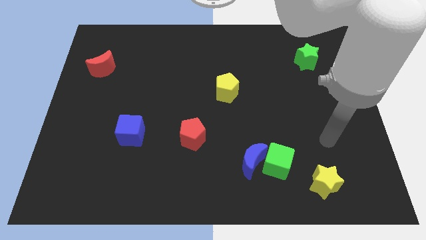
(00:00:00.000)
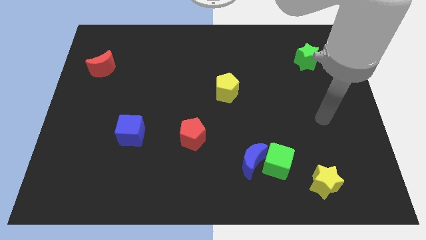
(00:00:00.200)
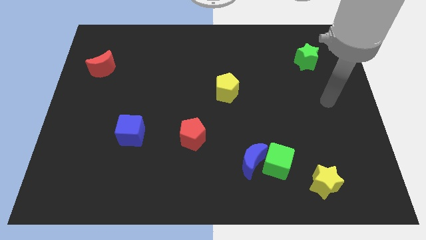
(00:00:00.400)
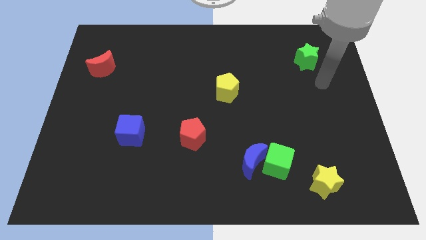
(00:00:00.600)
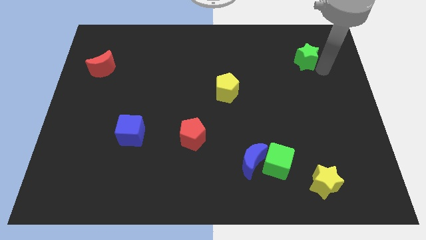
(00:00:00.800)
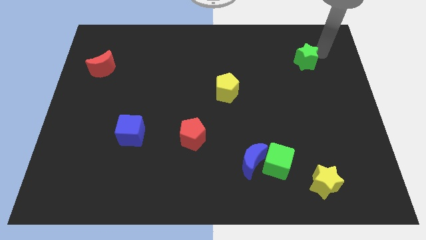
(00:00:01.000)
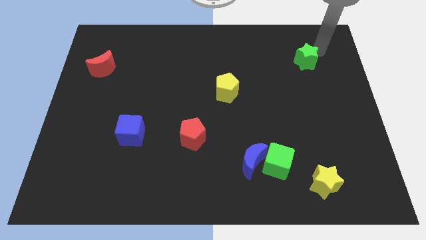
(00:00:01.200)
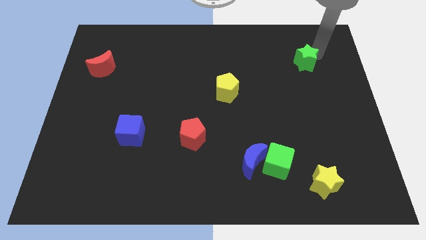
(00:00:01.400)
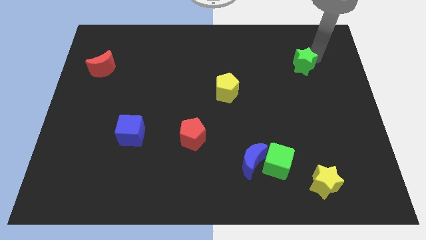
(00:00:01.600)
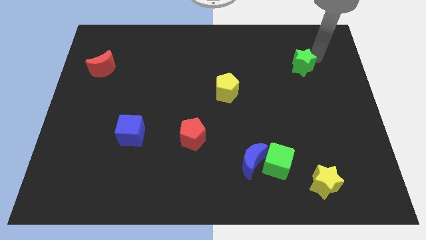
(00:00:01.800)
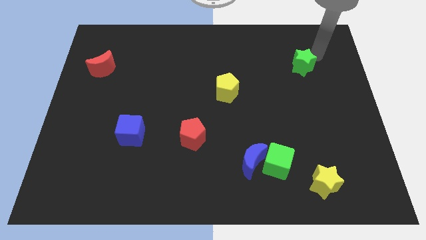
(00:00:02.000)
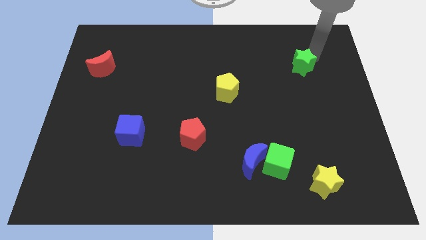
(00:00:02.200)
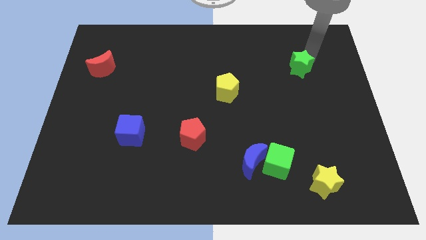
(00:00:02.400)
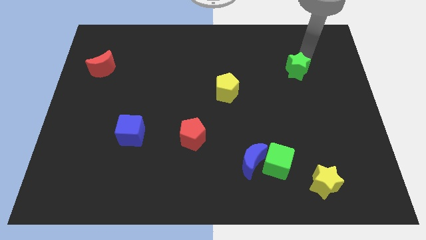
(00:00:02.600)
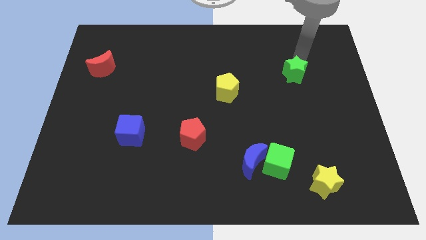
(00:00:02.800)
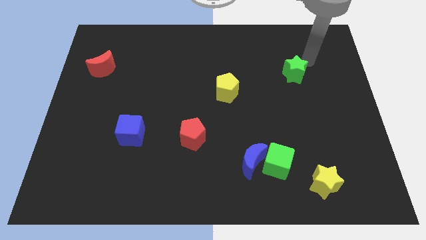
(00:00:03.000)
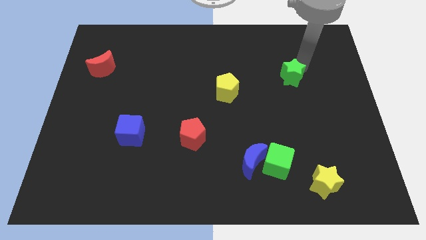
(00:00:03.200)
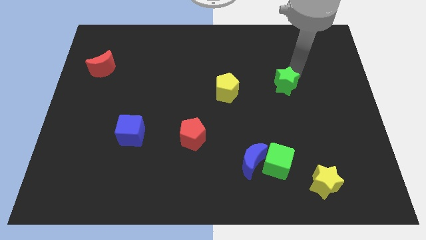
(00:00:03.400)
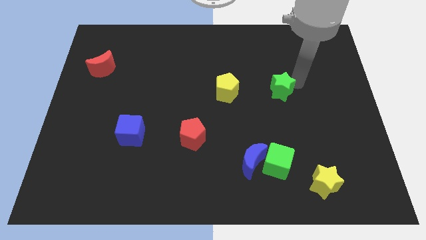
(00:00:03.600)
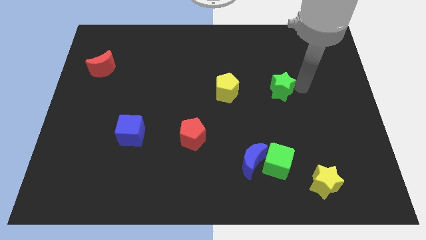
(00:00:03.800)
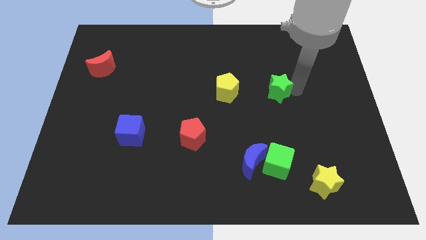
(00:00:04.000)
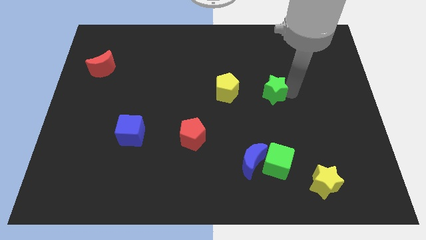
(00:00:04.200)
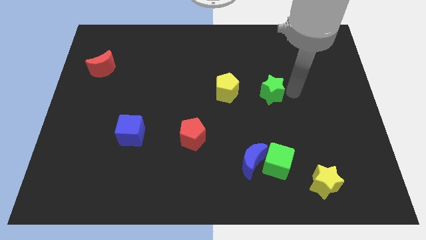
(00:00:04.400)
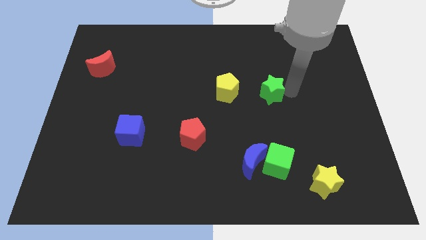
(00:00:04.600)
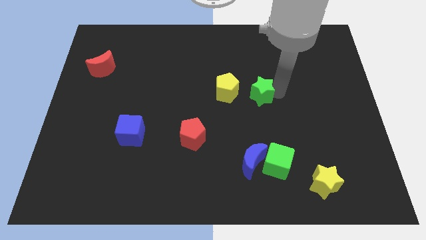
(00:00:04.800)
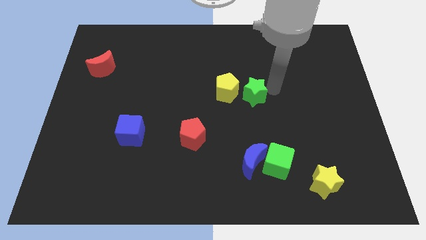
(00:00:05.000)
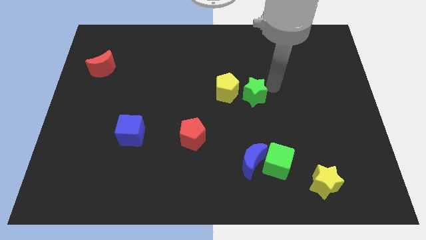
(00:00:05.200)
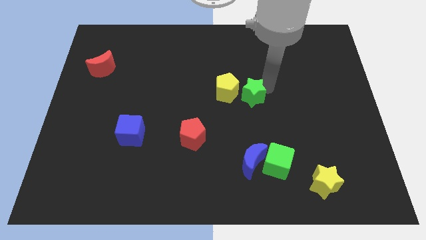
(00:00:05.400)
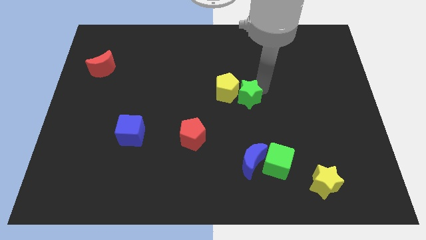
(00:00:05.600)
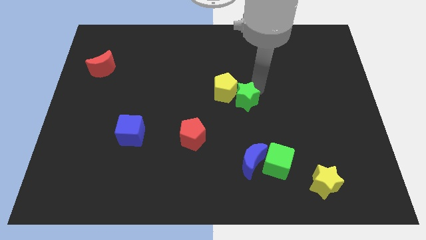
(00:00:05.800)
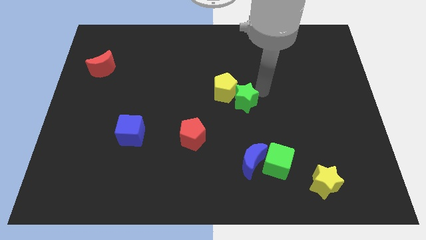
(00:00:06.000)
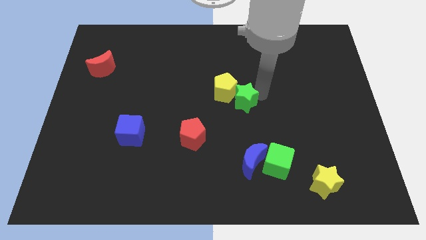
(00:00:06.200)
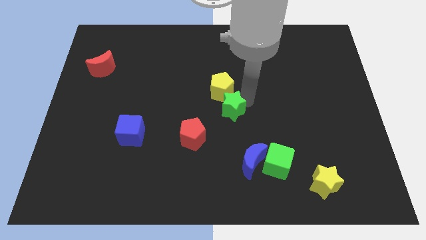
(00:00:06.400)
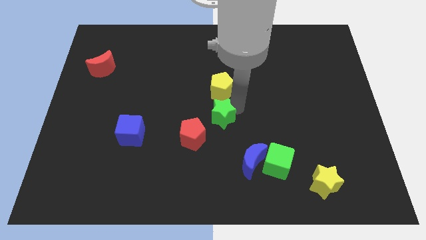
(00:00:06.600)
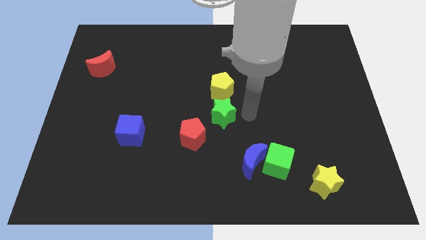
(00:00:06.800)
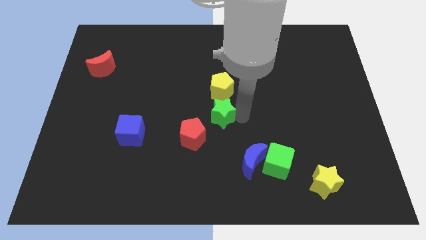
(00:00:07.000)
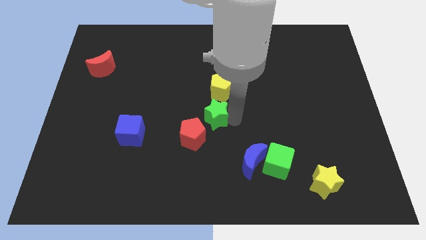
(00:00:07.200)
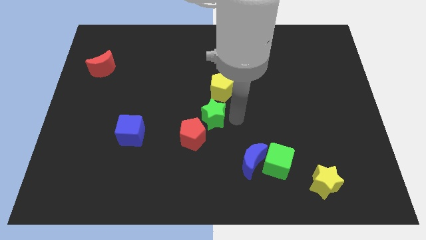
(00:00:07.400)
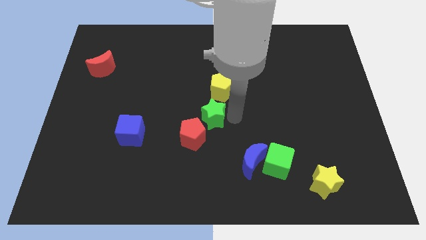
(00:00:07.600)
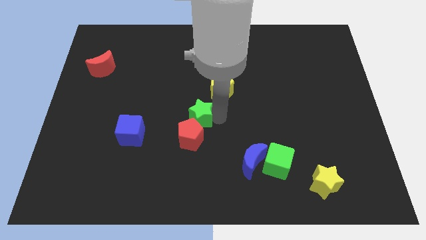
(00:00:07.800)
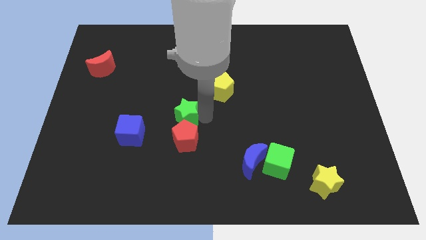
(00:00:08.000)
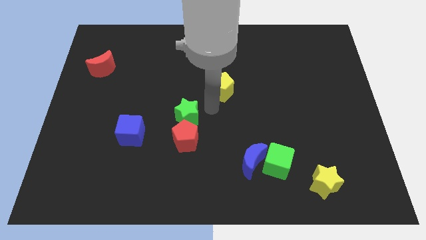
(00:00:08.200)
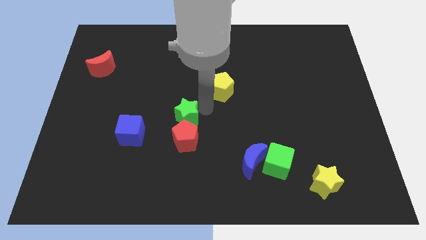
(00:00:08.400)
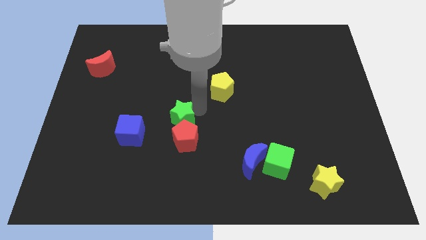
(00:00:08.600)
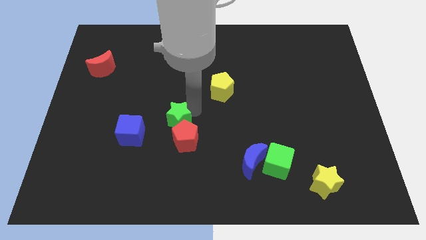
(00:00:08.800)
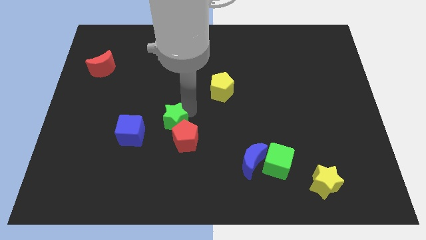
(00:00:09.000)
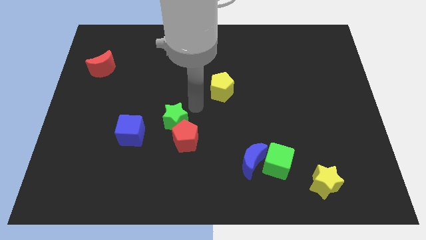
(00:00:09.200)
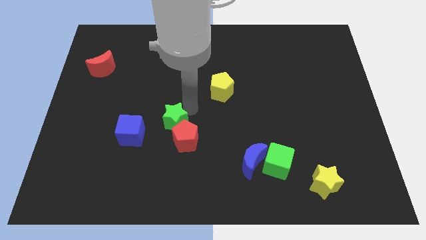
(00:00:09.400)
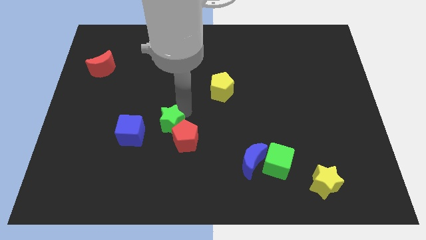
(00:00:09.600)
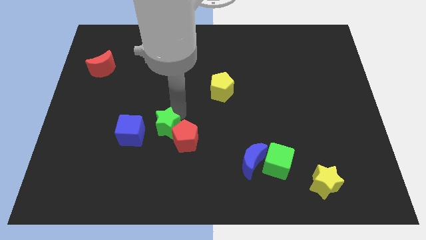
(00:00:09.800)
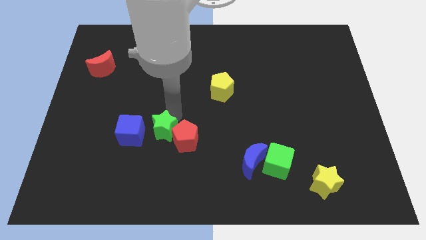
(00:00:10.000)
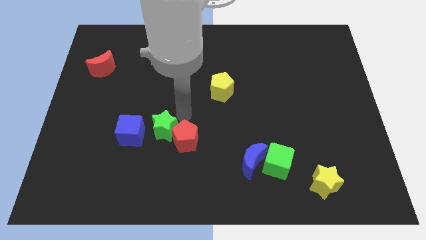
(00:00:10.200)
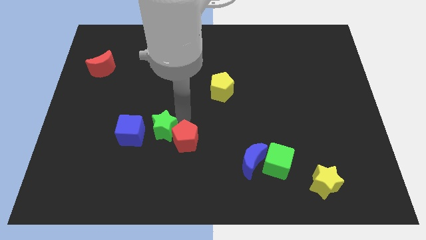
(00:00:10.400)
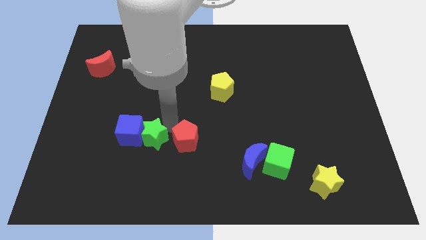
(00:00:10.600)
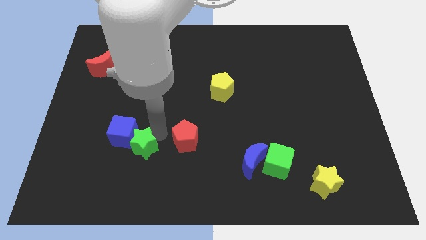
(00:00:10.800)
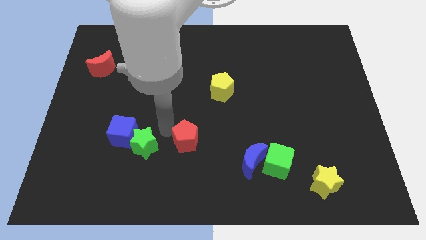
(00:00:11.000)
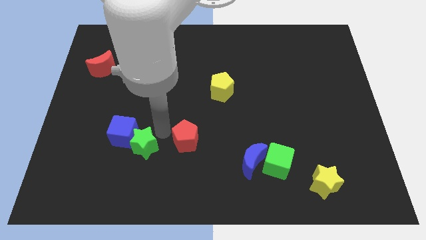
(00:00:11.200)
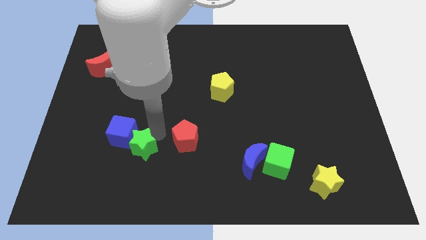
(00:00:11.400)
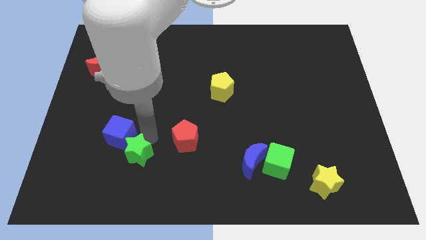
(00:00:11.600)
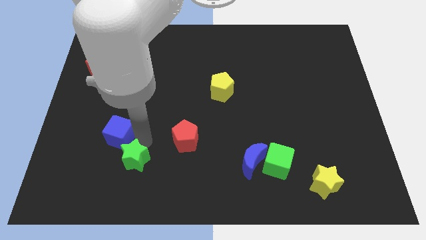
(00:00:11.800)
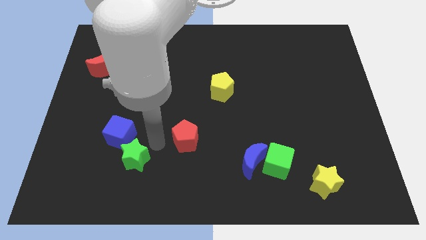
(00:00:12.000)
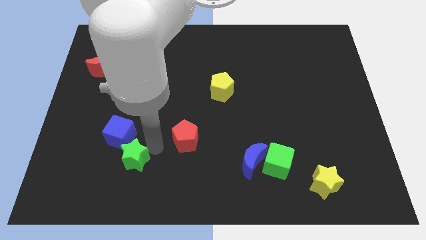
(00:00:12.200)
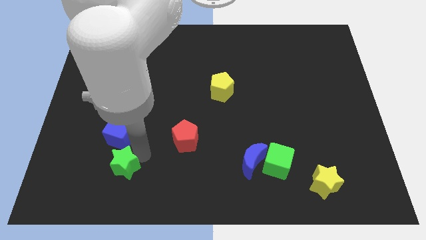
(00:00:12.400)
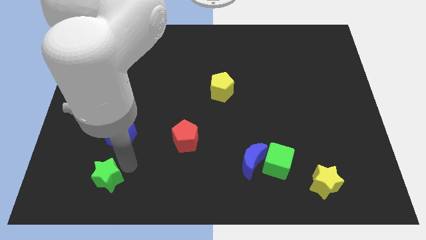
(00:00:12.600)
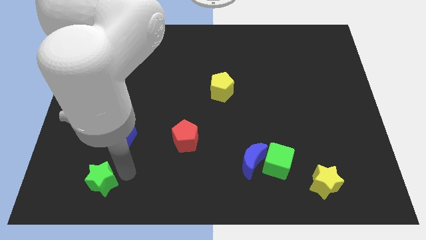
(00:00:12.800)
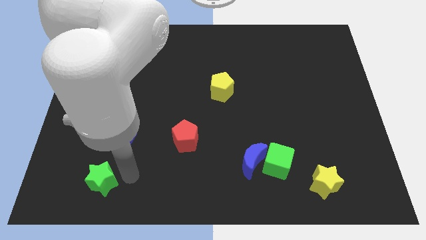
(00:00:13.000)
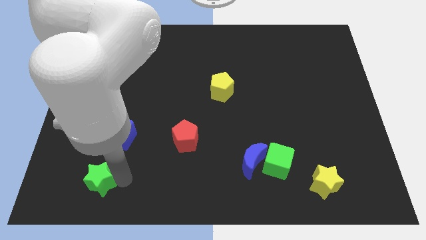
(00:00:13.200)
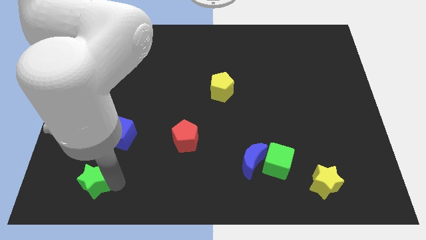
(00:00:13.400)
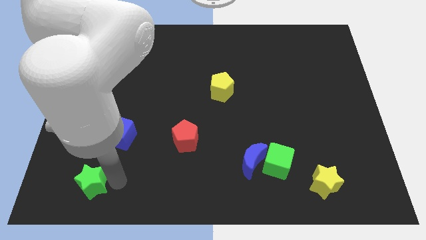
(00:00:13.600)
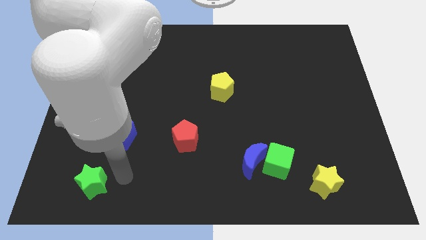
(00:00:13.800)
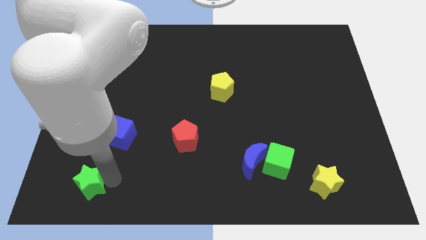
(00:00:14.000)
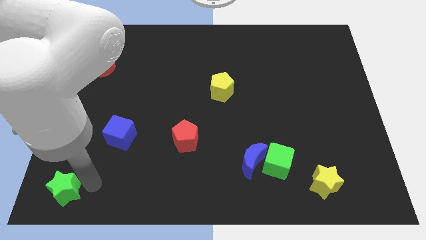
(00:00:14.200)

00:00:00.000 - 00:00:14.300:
put the green star to the bottom left corner
